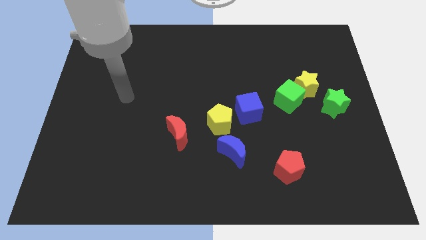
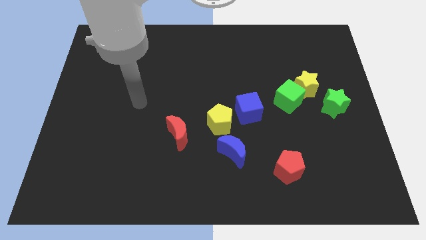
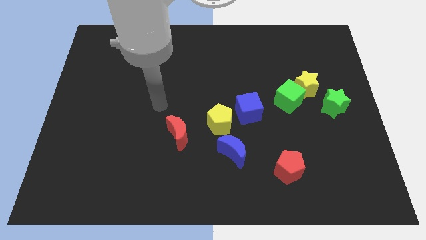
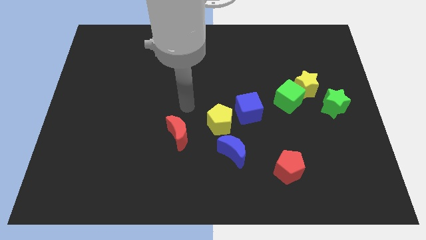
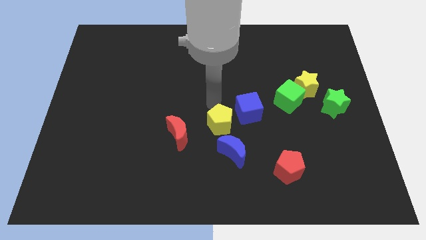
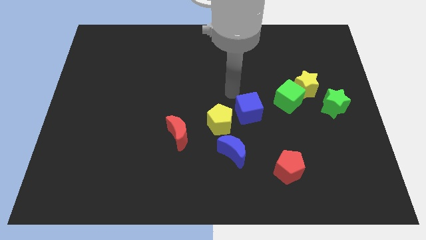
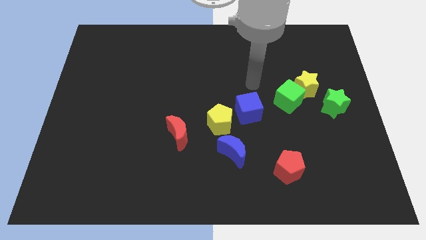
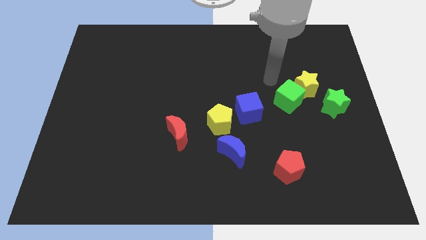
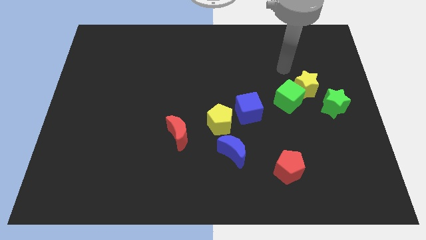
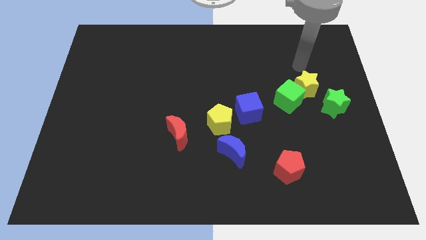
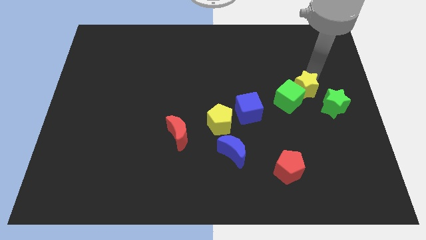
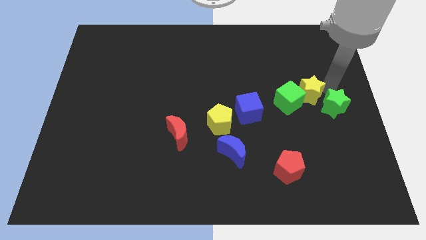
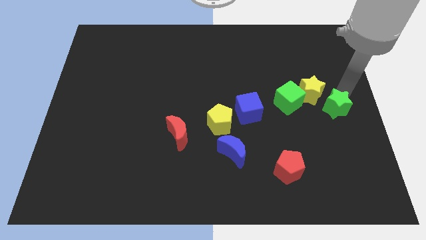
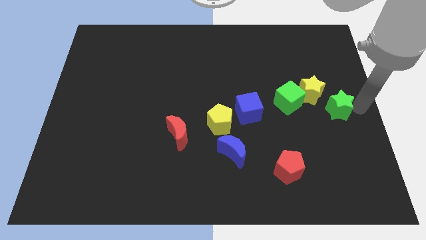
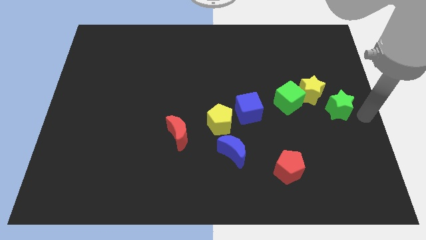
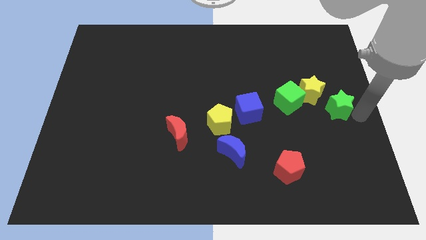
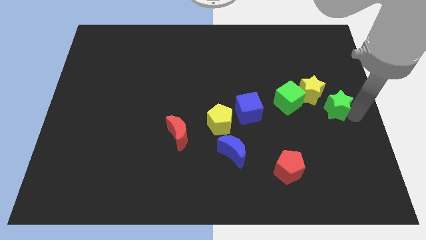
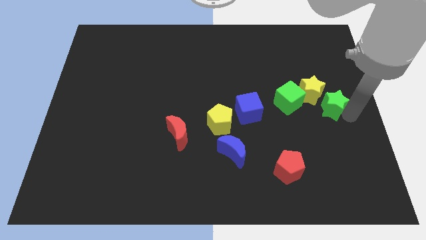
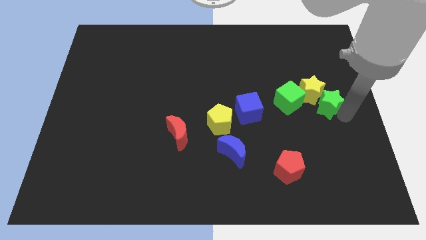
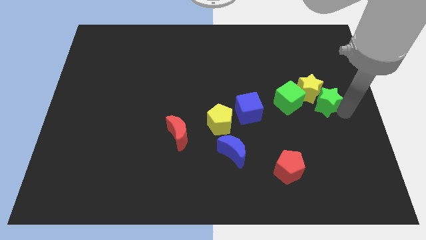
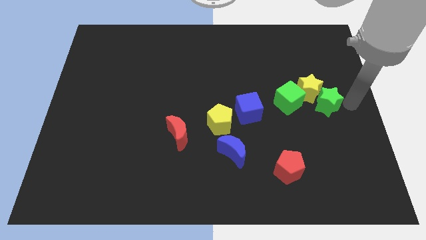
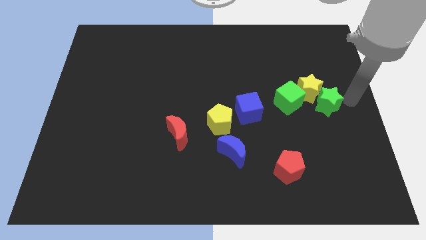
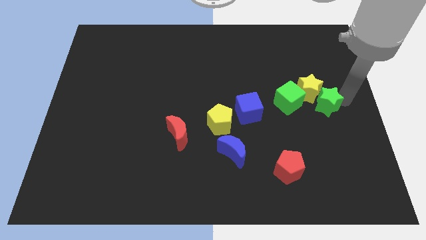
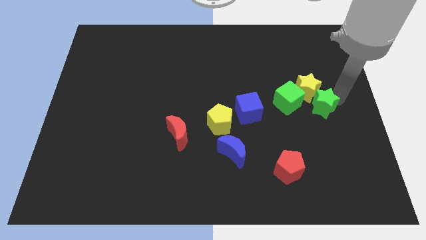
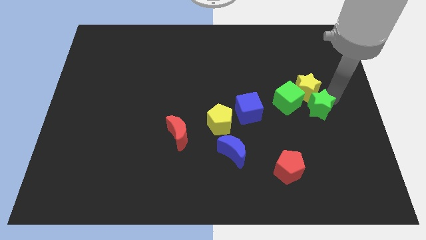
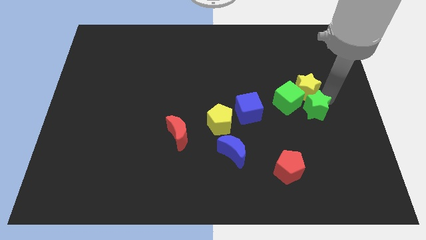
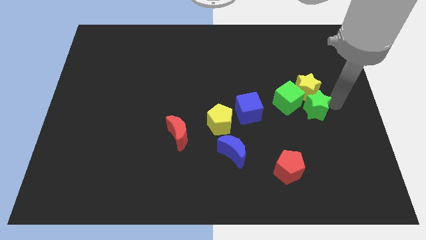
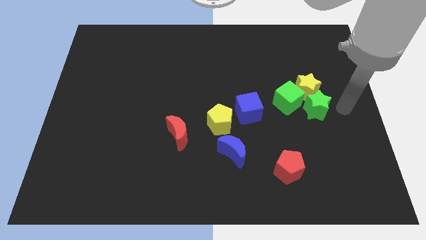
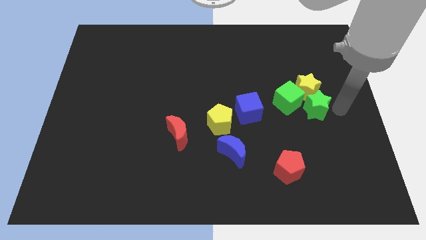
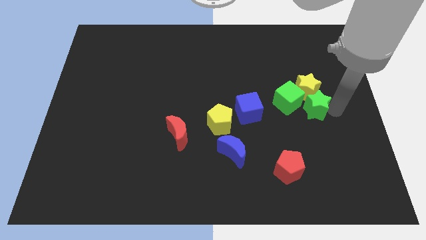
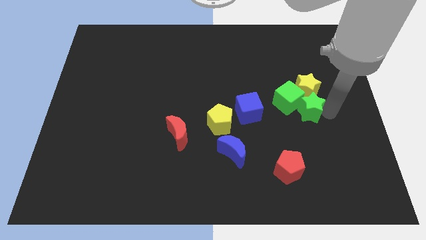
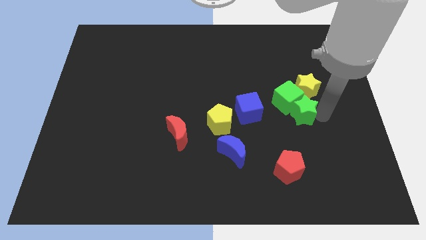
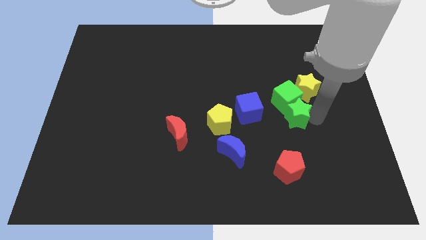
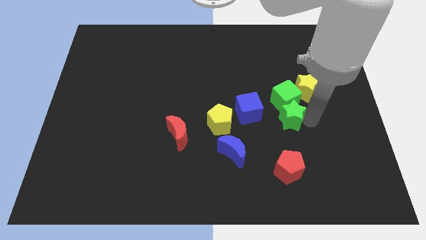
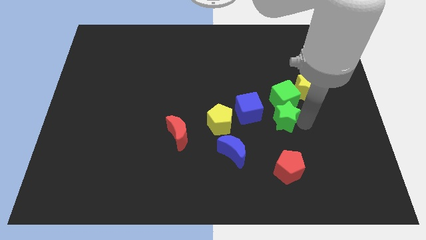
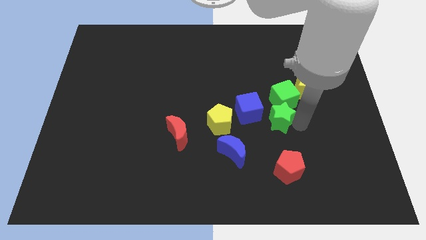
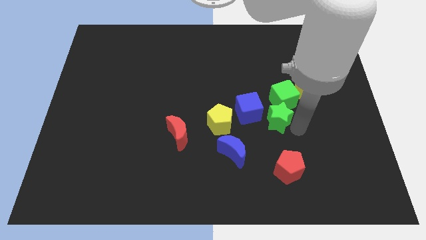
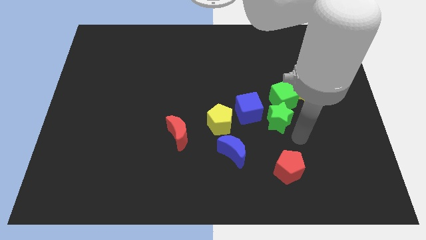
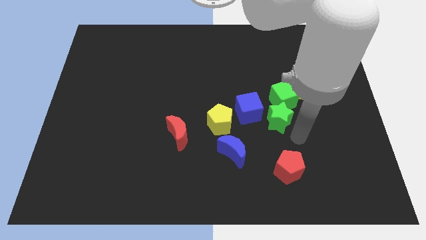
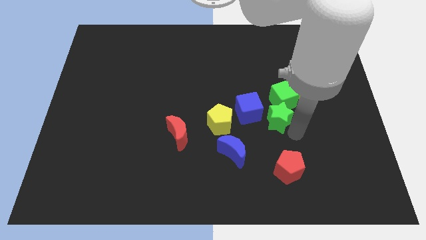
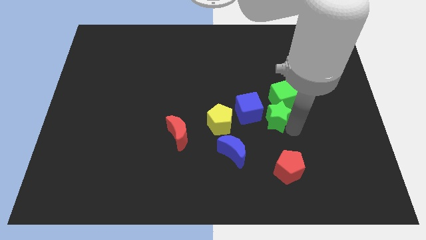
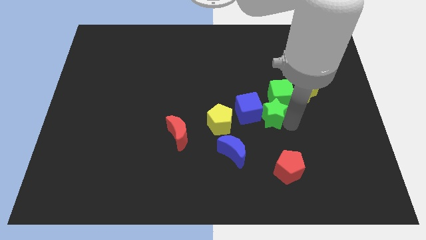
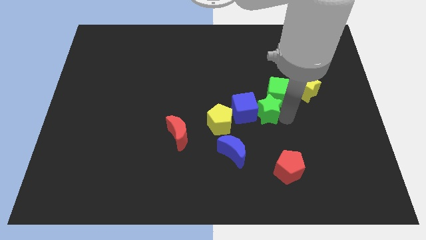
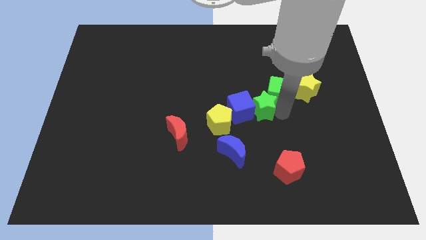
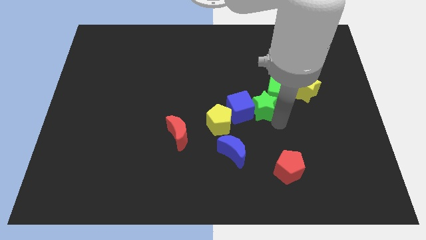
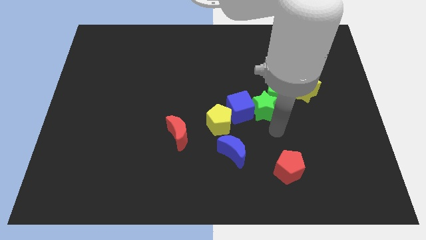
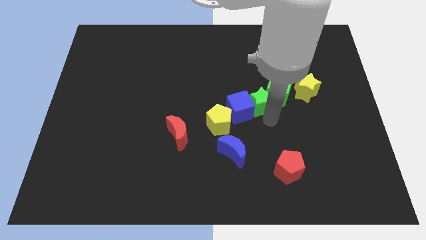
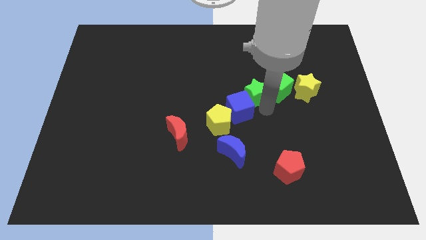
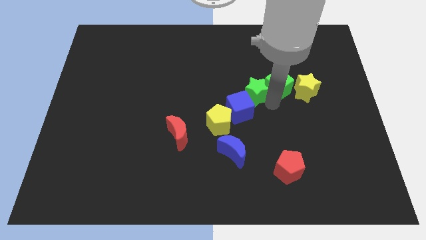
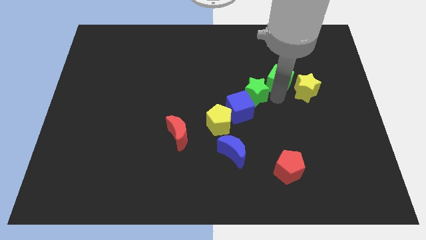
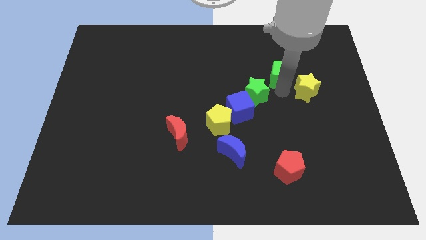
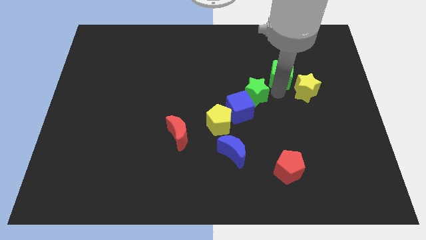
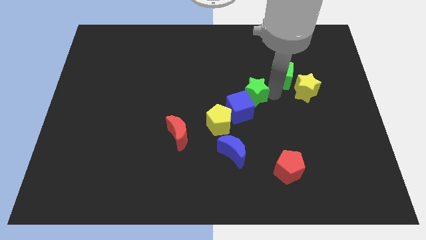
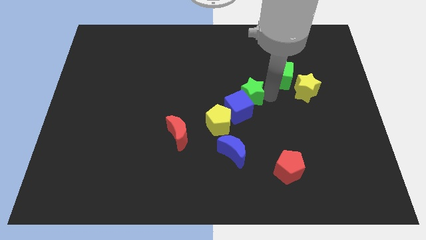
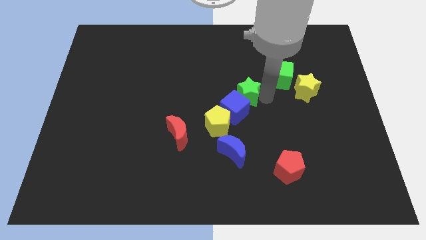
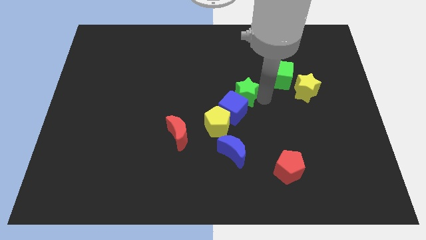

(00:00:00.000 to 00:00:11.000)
move the green star left

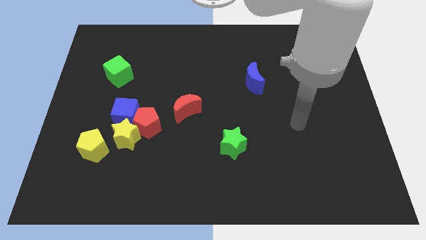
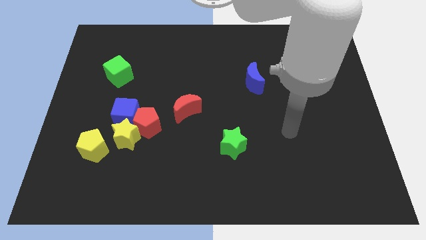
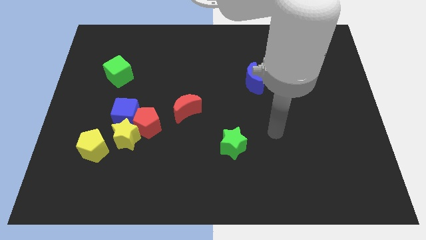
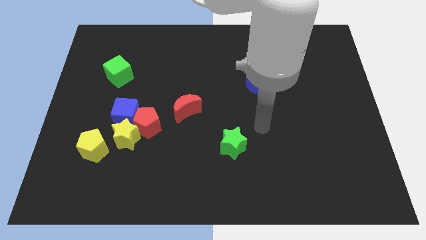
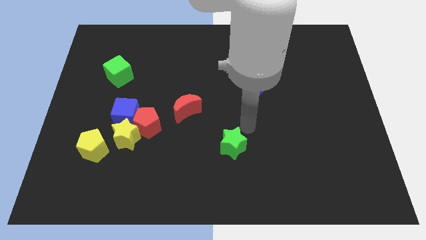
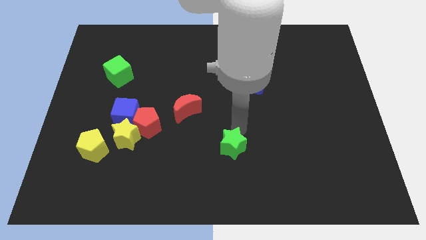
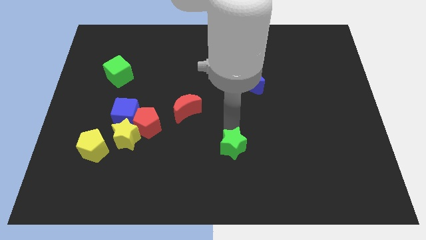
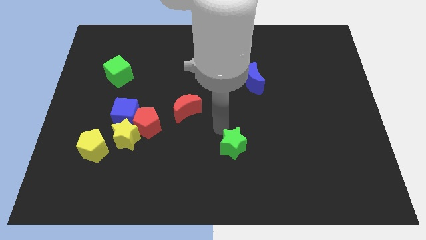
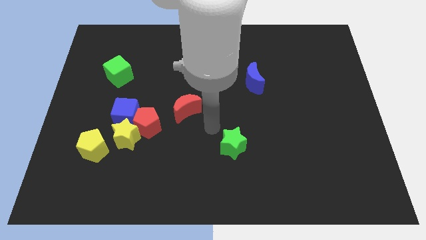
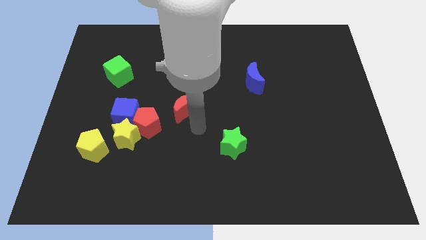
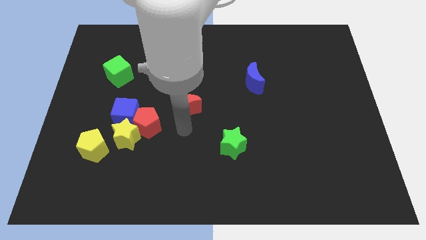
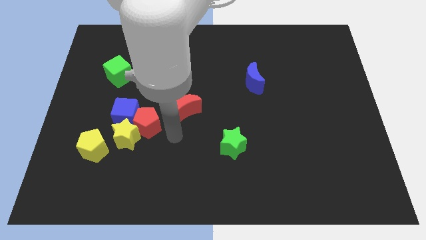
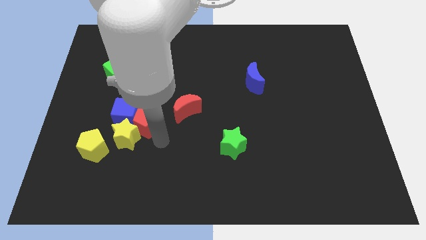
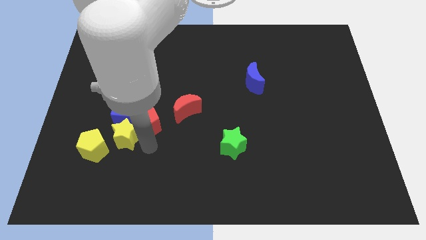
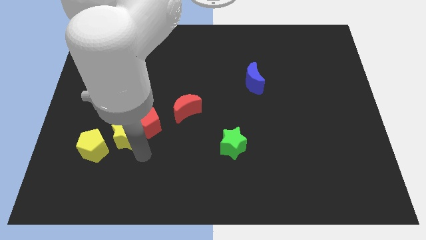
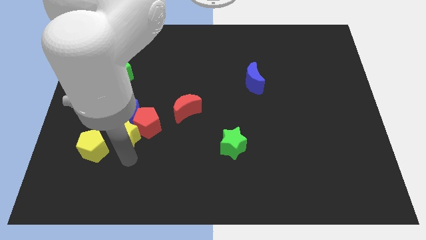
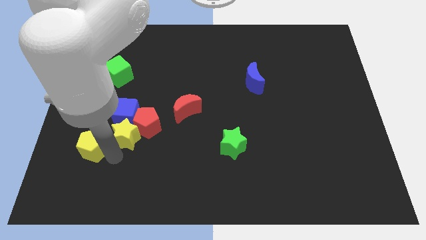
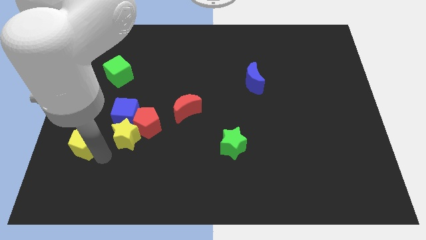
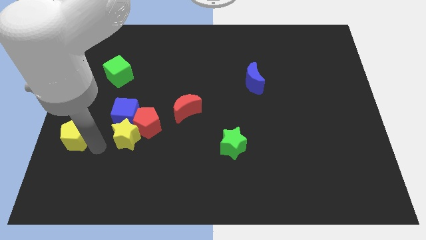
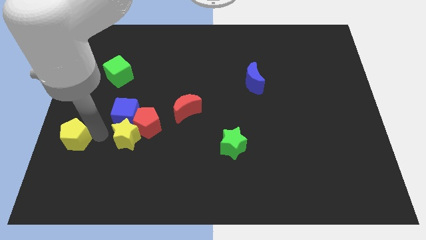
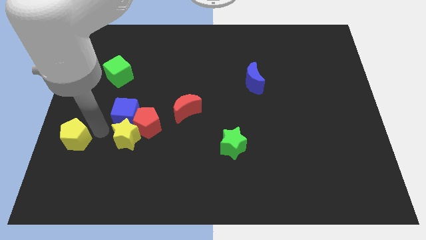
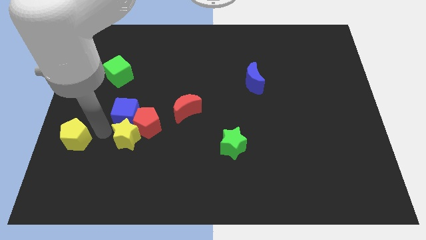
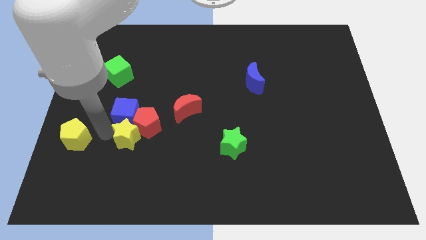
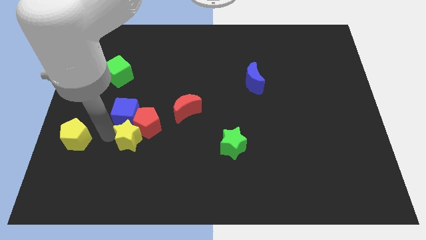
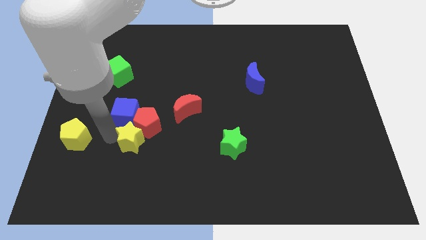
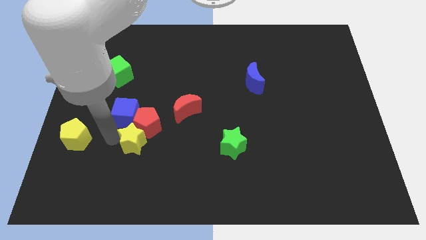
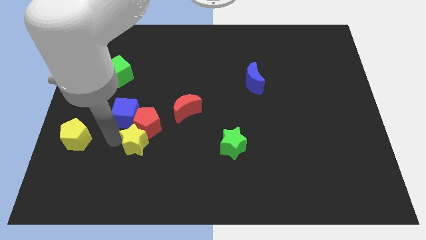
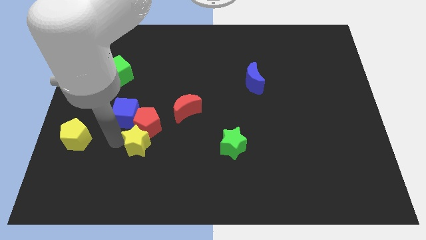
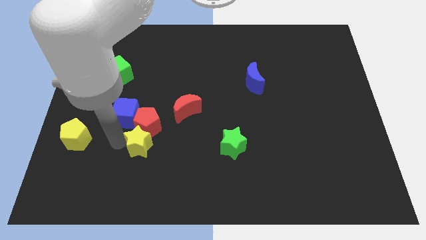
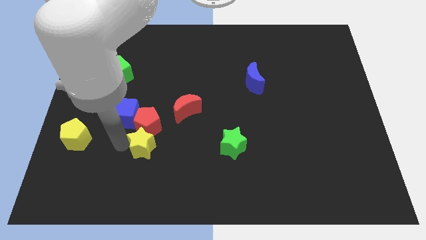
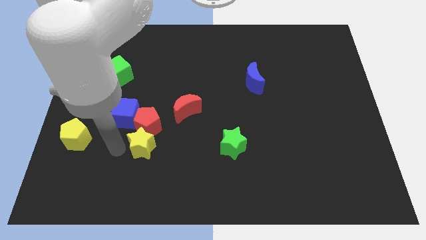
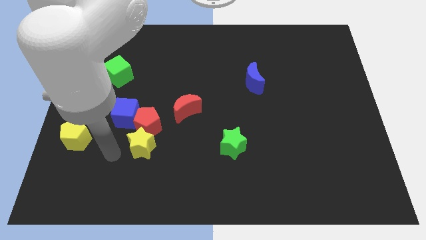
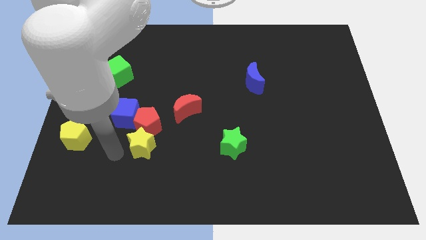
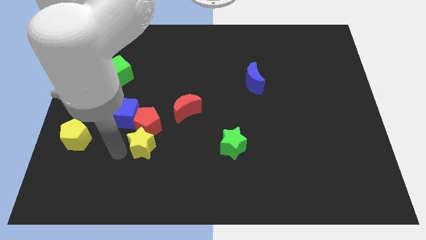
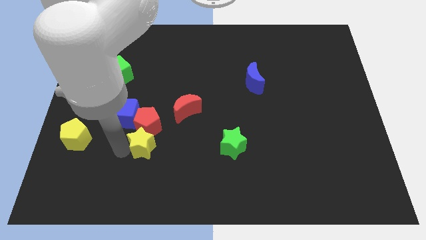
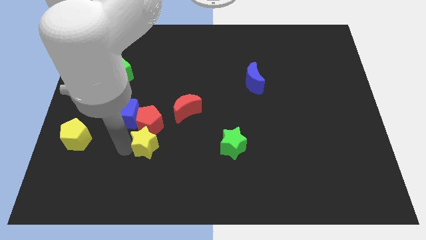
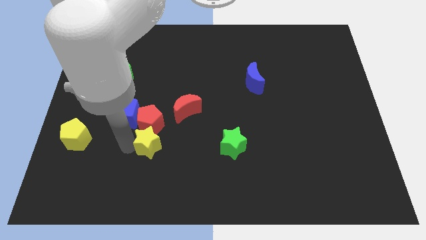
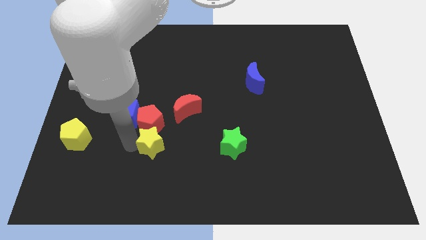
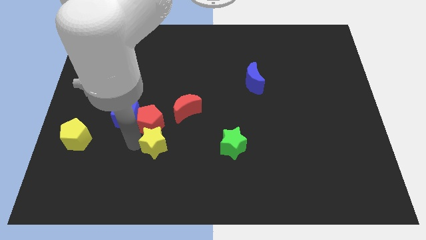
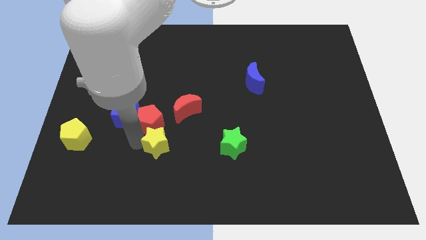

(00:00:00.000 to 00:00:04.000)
slightly move the yellow star to the right
